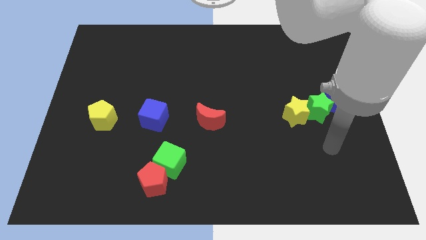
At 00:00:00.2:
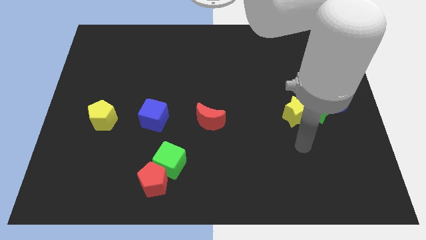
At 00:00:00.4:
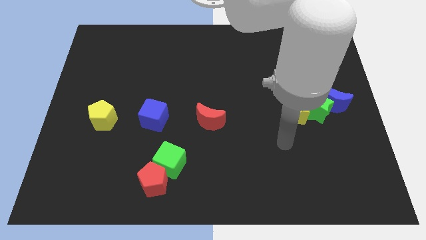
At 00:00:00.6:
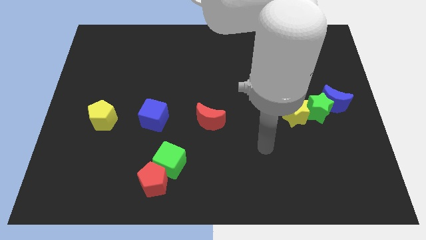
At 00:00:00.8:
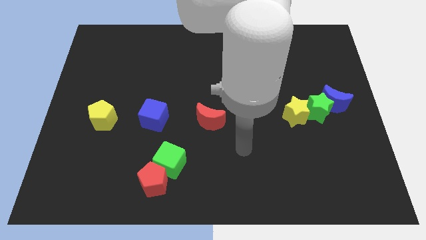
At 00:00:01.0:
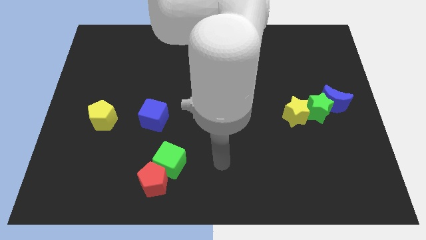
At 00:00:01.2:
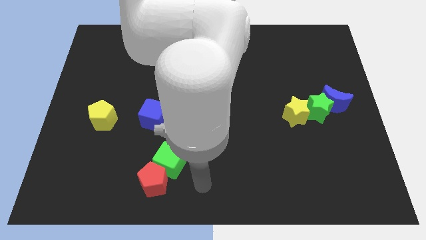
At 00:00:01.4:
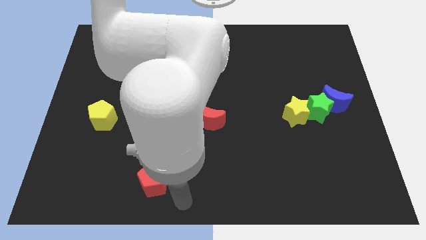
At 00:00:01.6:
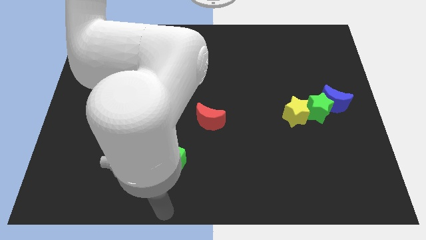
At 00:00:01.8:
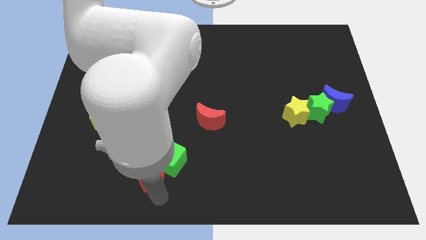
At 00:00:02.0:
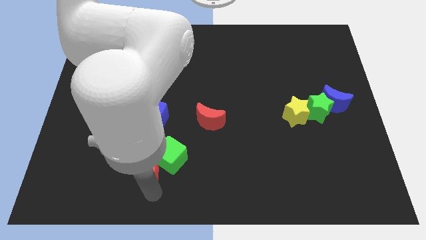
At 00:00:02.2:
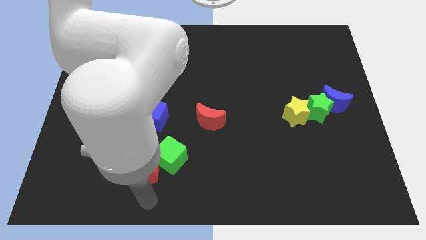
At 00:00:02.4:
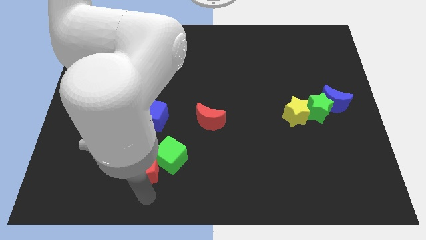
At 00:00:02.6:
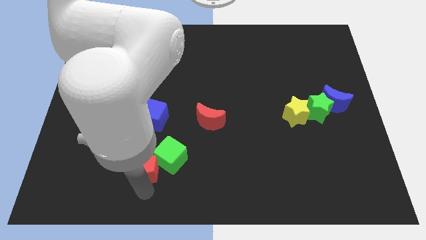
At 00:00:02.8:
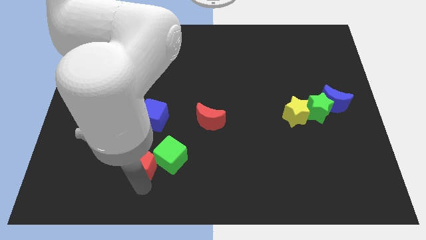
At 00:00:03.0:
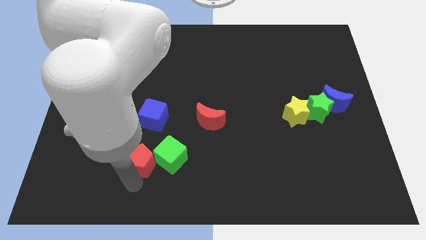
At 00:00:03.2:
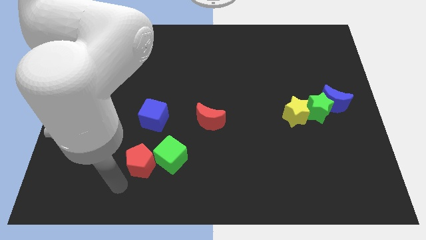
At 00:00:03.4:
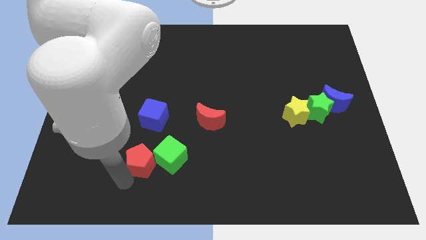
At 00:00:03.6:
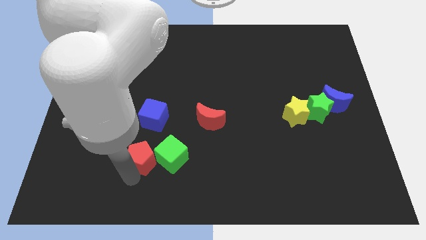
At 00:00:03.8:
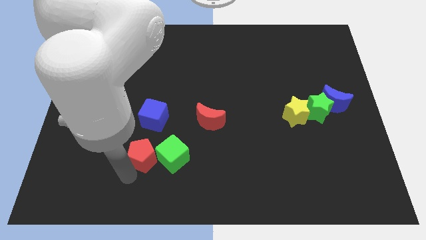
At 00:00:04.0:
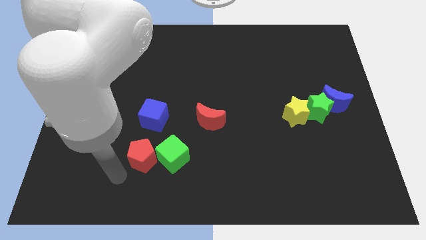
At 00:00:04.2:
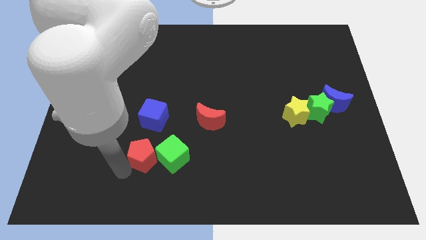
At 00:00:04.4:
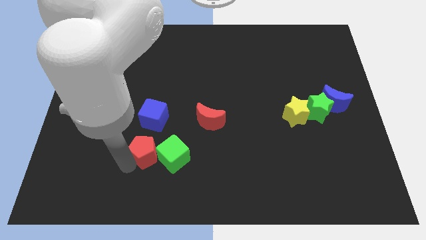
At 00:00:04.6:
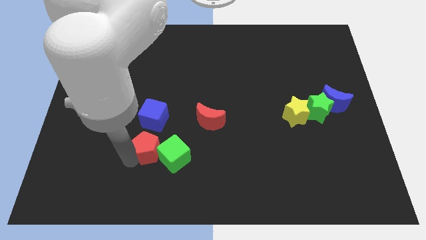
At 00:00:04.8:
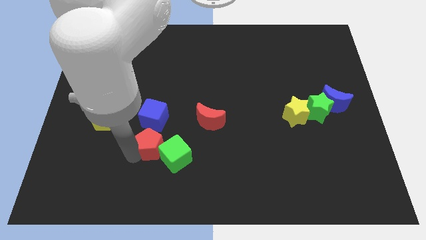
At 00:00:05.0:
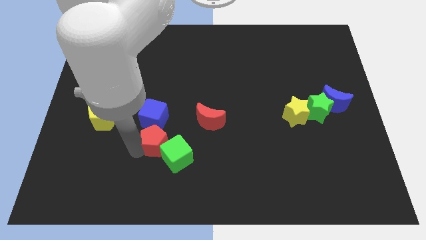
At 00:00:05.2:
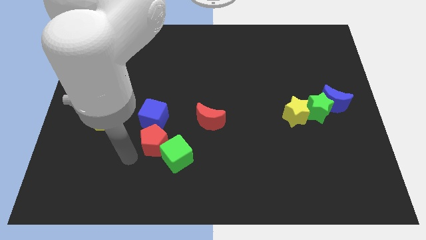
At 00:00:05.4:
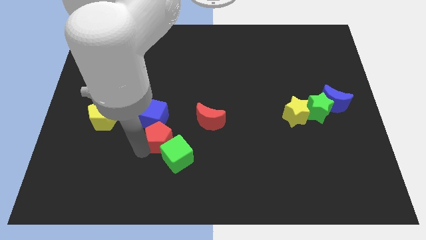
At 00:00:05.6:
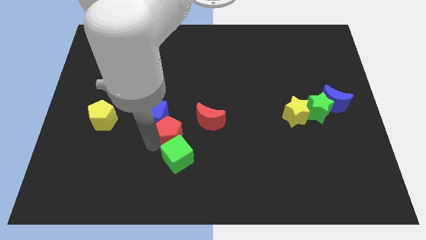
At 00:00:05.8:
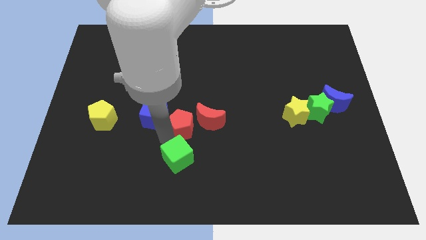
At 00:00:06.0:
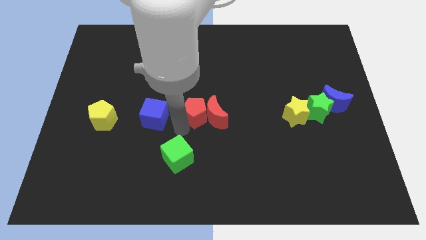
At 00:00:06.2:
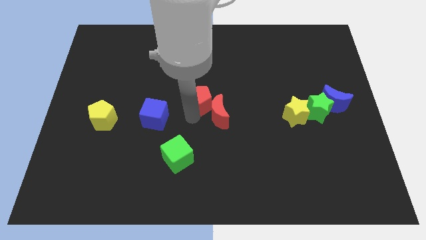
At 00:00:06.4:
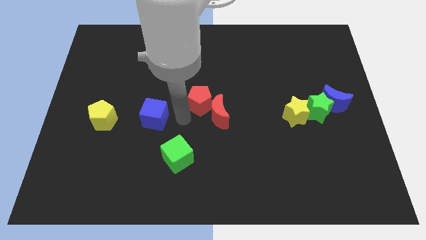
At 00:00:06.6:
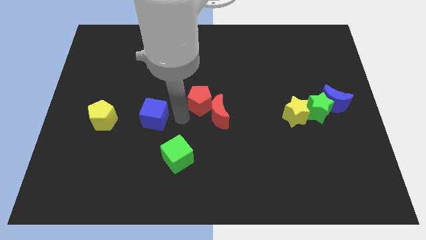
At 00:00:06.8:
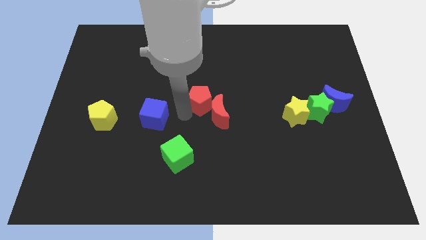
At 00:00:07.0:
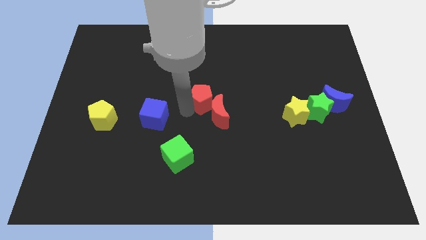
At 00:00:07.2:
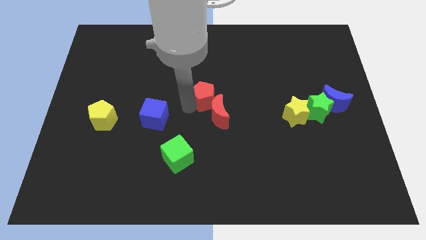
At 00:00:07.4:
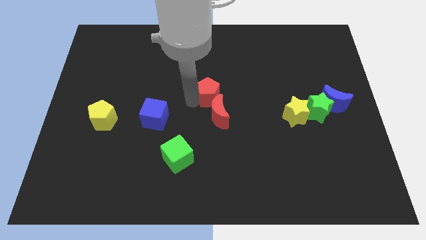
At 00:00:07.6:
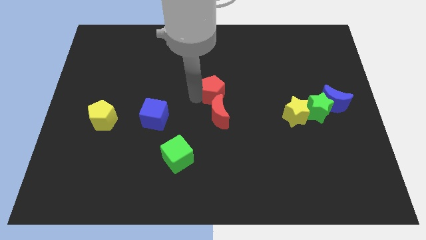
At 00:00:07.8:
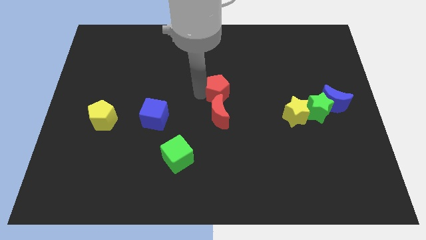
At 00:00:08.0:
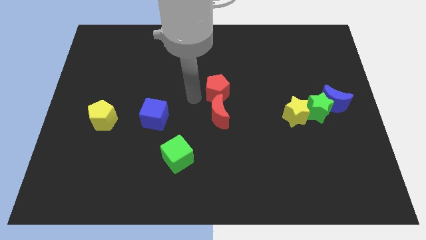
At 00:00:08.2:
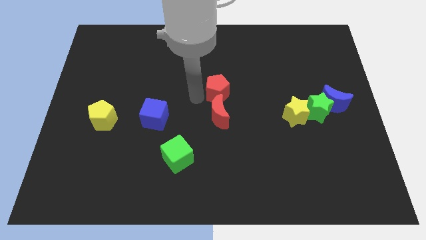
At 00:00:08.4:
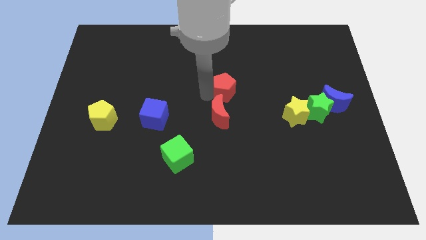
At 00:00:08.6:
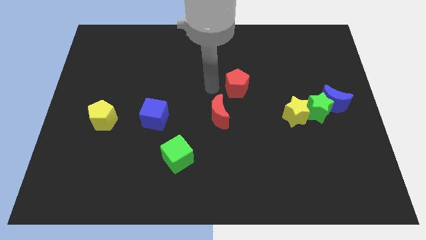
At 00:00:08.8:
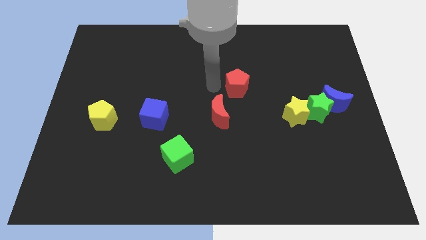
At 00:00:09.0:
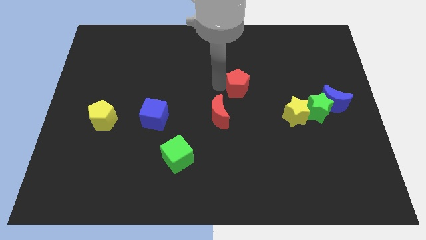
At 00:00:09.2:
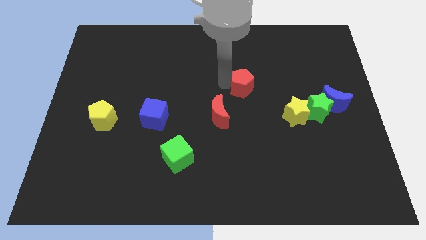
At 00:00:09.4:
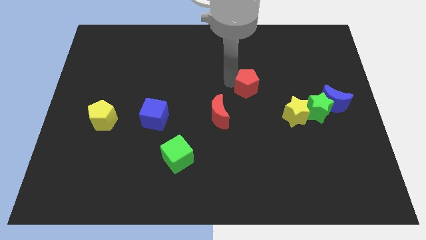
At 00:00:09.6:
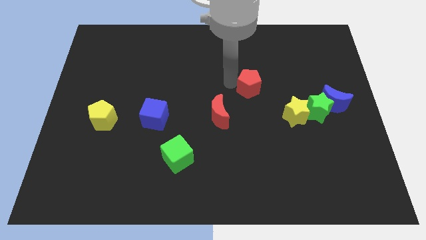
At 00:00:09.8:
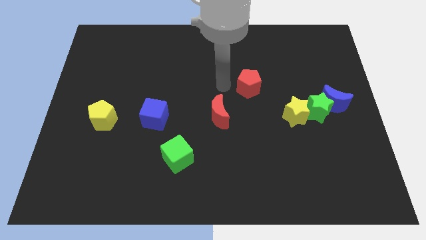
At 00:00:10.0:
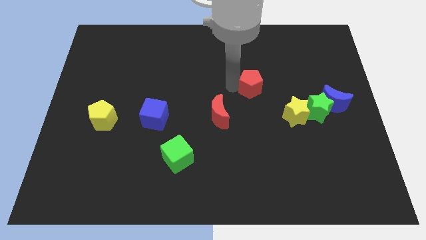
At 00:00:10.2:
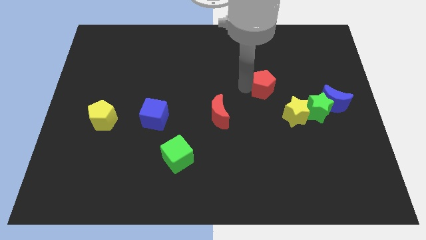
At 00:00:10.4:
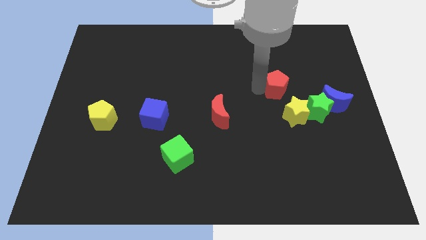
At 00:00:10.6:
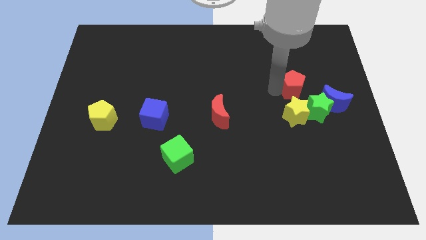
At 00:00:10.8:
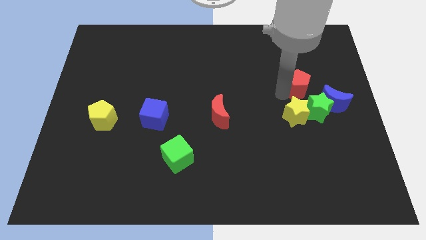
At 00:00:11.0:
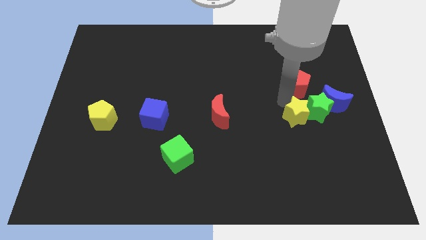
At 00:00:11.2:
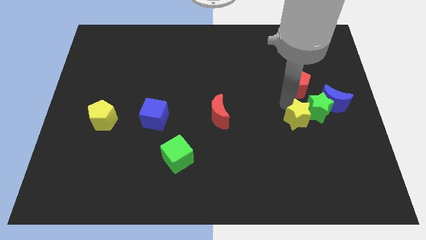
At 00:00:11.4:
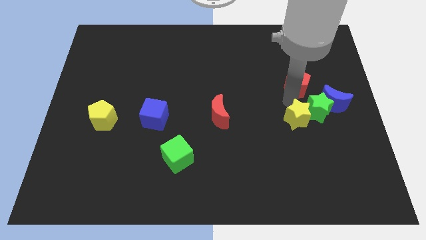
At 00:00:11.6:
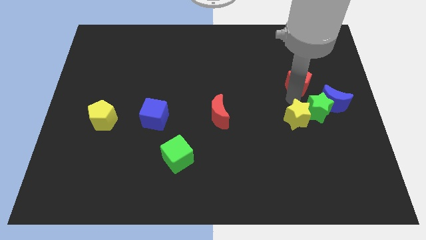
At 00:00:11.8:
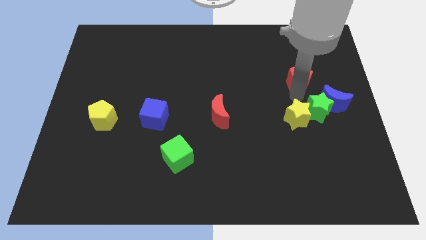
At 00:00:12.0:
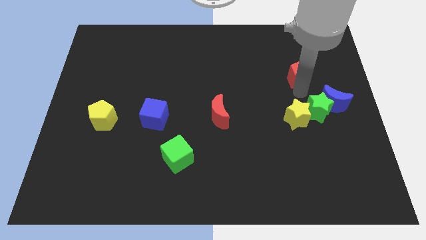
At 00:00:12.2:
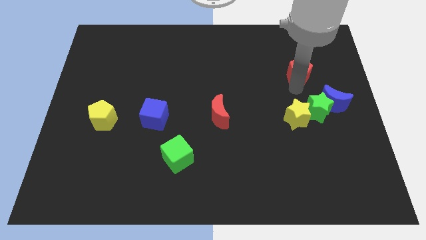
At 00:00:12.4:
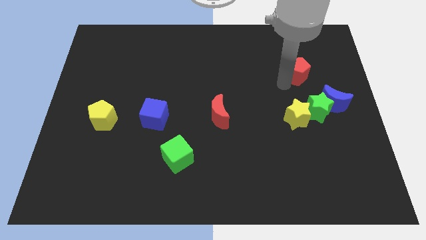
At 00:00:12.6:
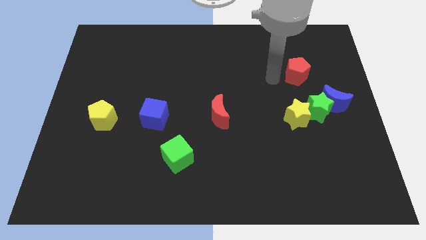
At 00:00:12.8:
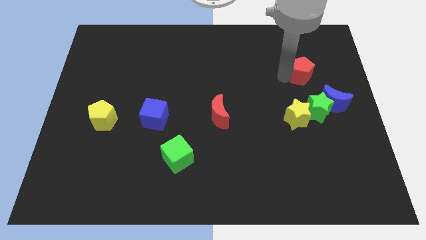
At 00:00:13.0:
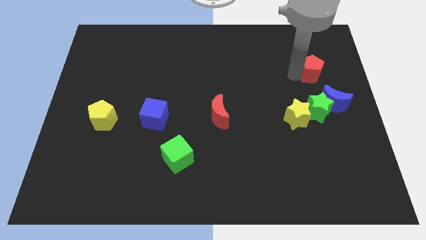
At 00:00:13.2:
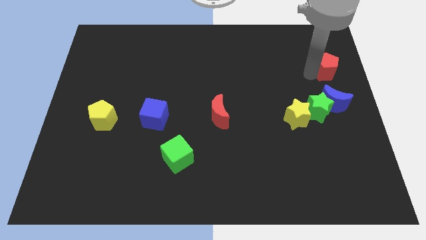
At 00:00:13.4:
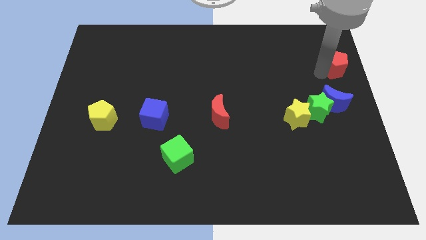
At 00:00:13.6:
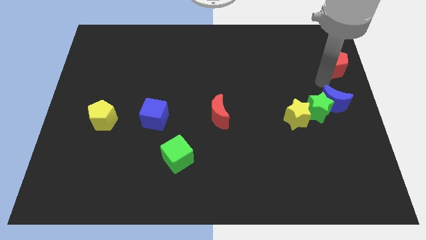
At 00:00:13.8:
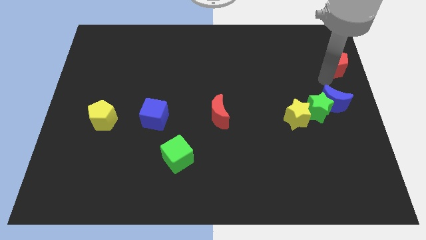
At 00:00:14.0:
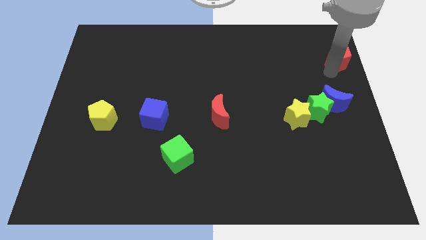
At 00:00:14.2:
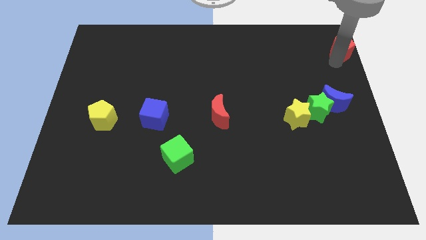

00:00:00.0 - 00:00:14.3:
move the red pentagon to the top right corner
